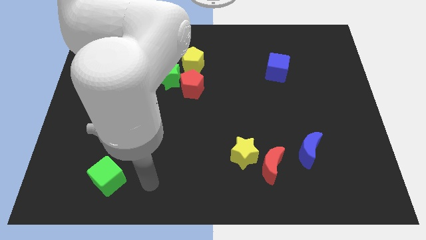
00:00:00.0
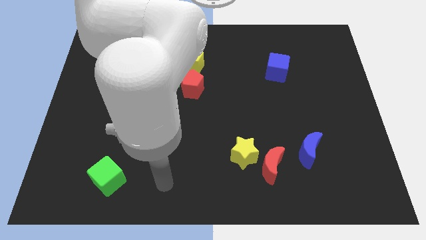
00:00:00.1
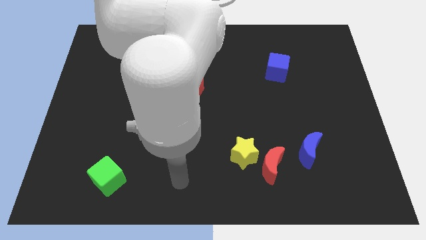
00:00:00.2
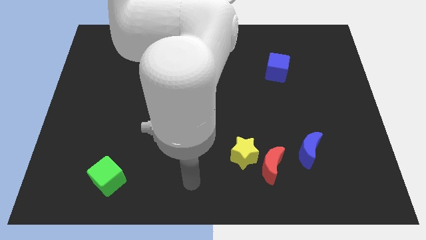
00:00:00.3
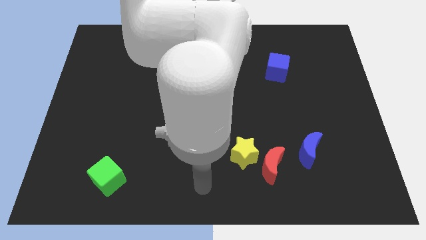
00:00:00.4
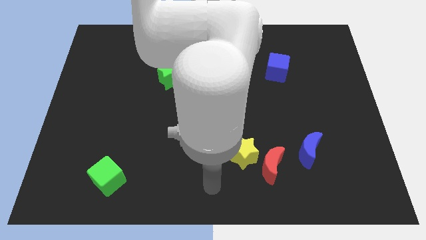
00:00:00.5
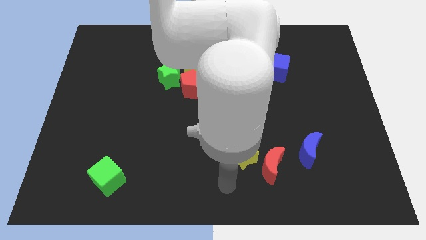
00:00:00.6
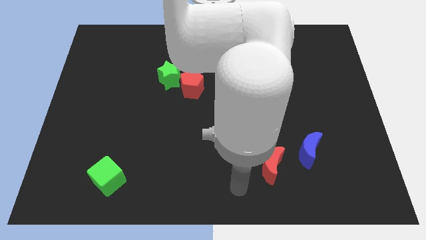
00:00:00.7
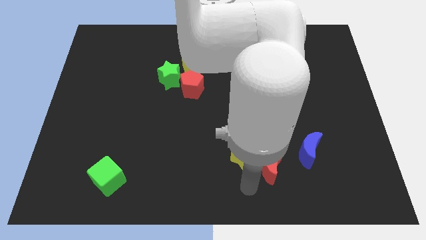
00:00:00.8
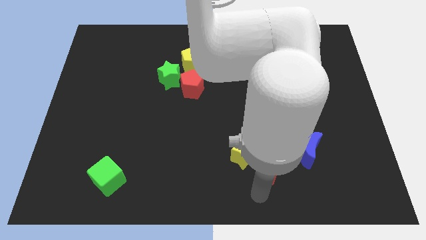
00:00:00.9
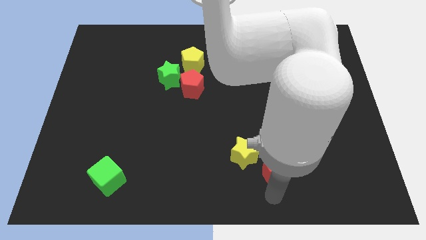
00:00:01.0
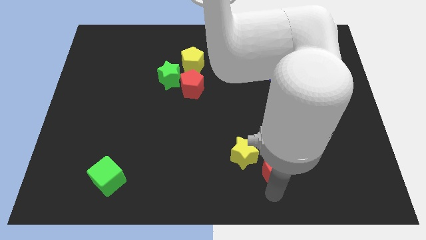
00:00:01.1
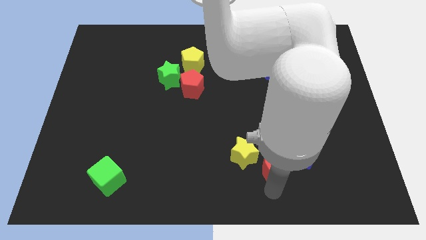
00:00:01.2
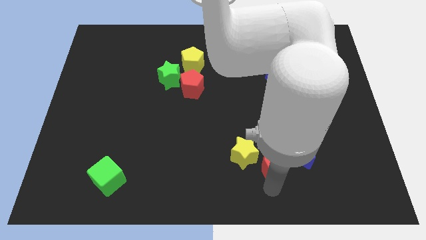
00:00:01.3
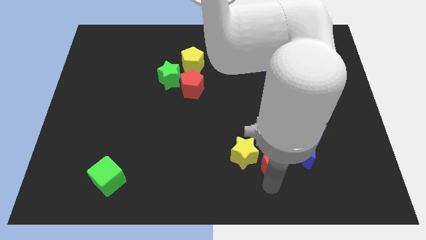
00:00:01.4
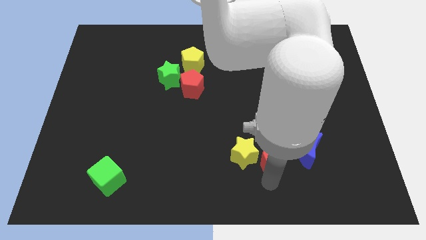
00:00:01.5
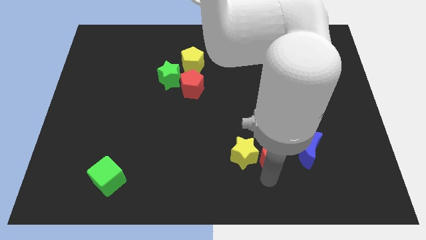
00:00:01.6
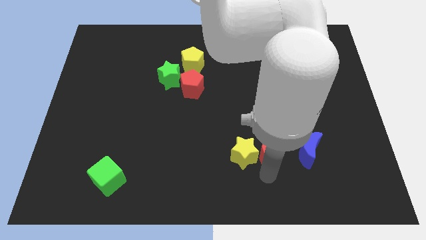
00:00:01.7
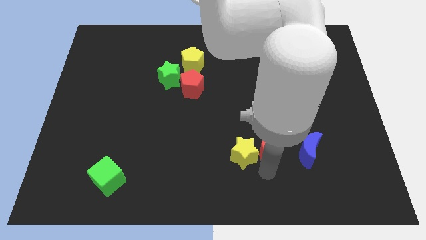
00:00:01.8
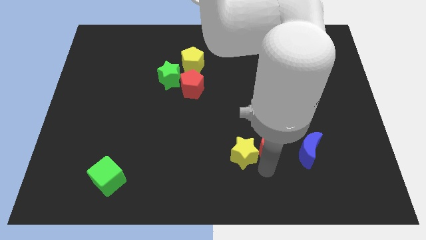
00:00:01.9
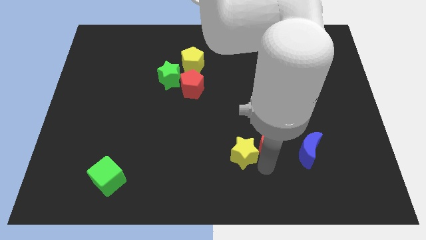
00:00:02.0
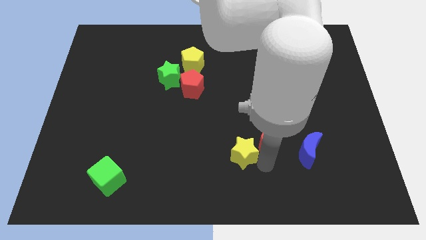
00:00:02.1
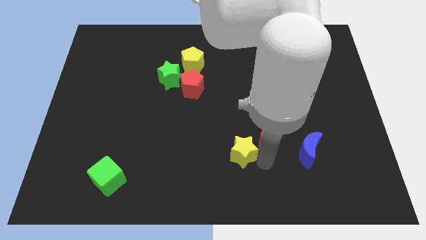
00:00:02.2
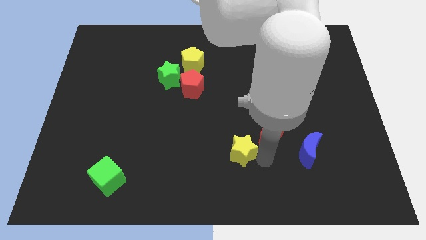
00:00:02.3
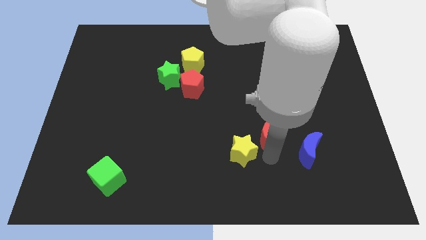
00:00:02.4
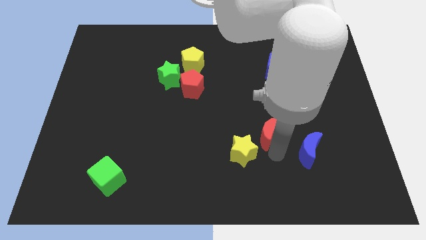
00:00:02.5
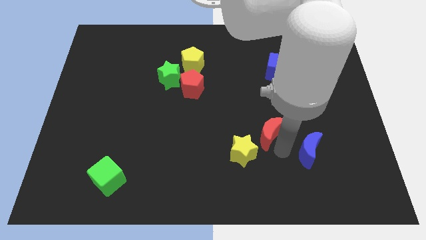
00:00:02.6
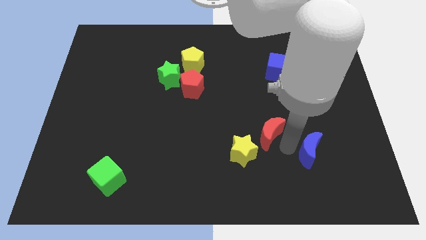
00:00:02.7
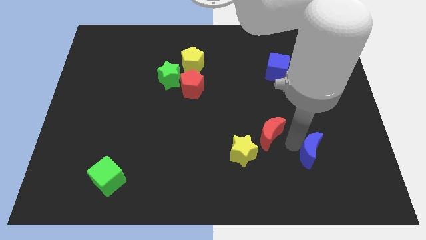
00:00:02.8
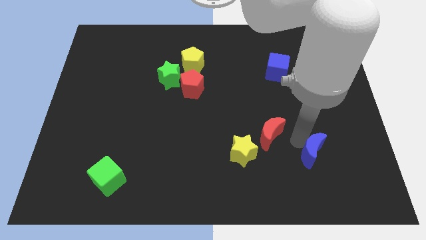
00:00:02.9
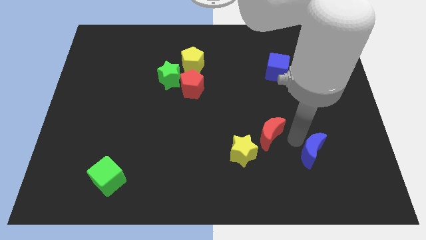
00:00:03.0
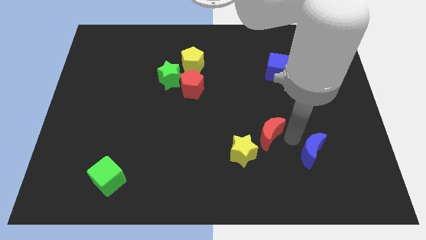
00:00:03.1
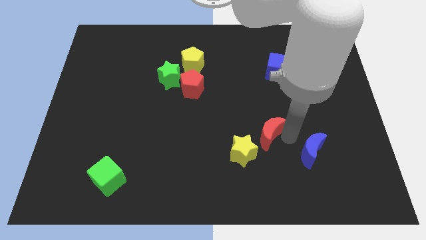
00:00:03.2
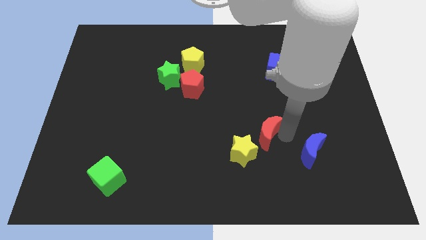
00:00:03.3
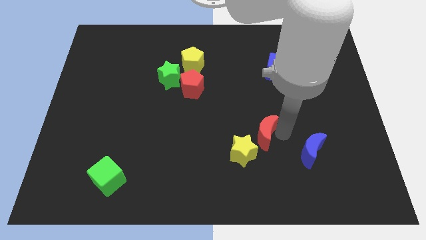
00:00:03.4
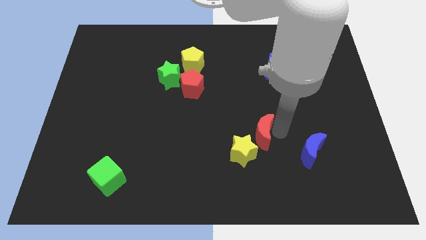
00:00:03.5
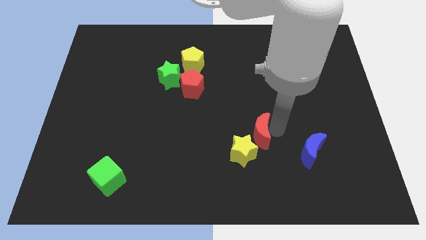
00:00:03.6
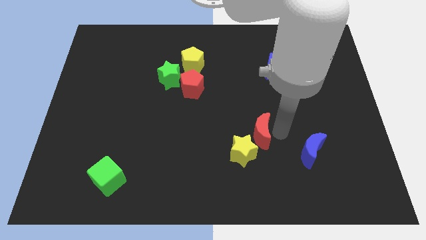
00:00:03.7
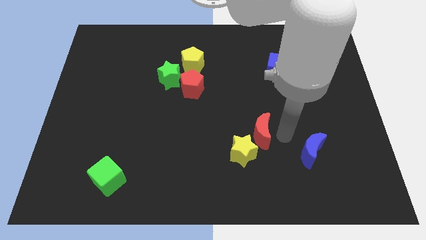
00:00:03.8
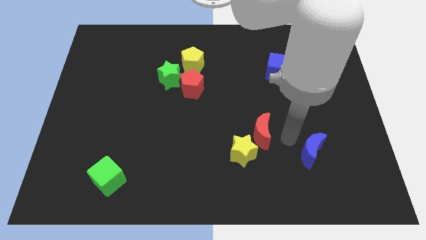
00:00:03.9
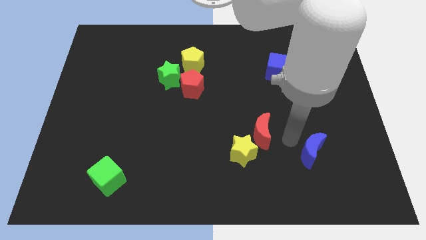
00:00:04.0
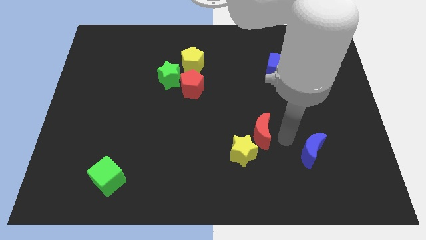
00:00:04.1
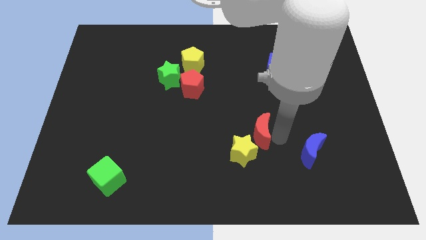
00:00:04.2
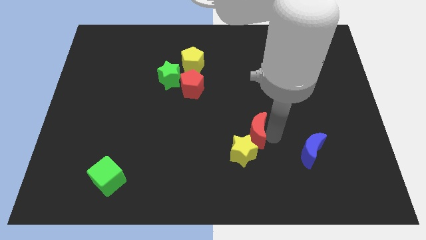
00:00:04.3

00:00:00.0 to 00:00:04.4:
slide the red moon up and then left somewhat

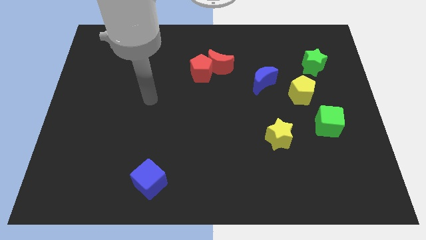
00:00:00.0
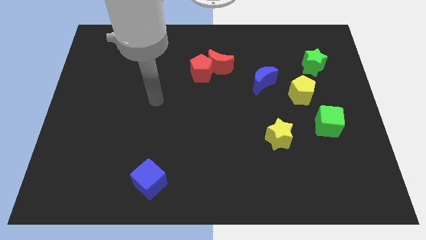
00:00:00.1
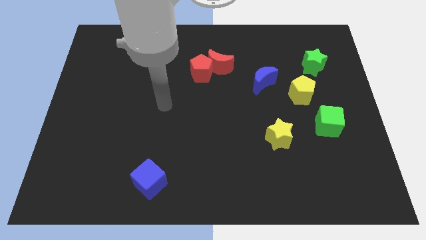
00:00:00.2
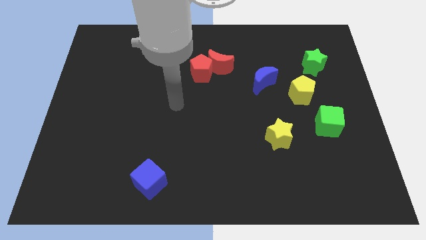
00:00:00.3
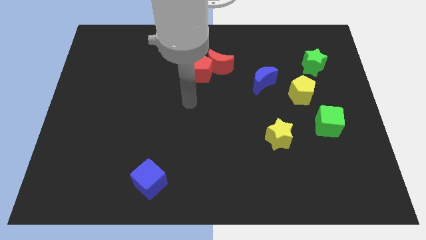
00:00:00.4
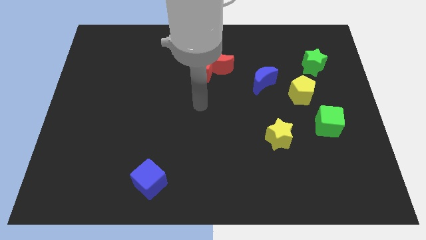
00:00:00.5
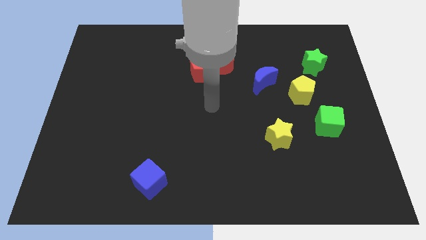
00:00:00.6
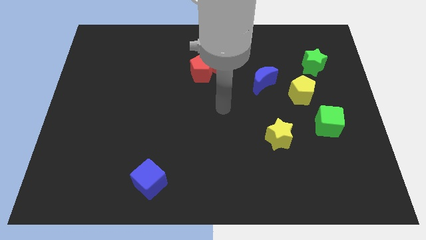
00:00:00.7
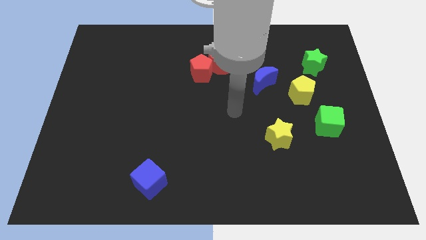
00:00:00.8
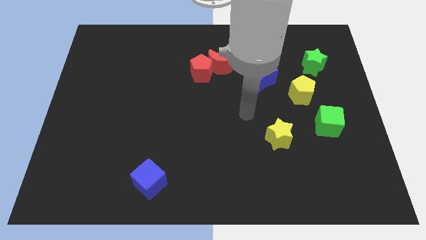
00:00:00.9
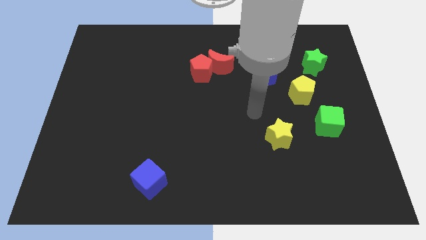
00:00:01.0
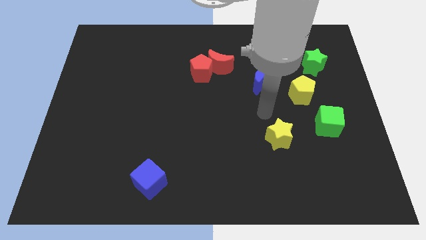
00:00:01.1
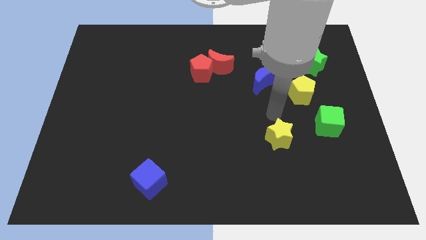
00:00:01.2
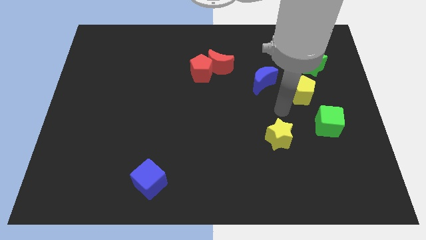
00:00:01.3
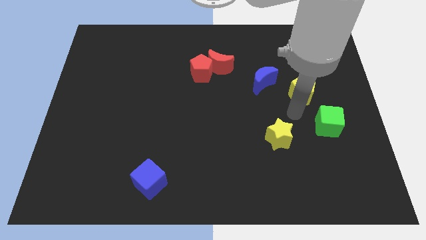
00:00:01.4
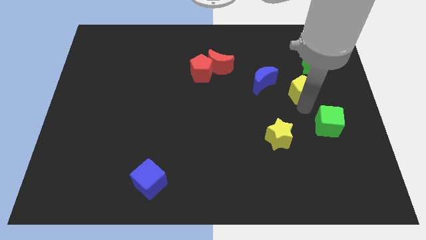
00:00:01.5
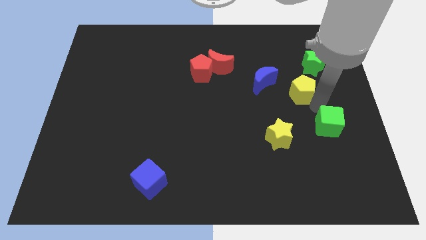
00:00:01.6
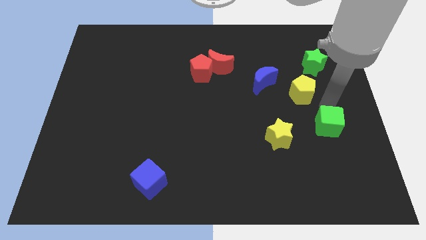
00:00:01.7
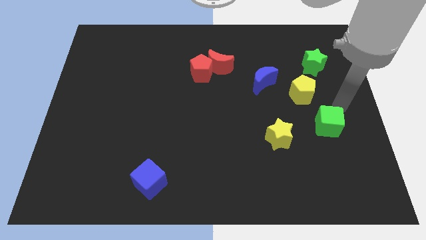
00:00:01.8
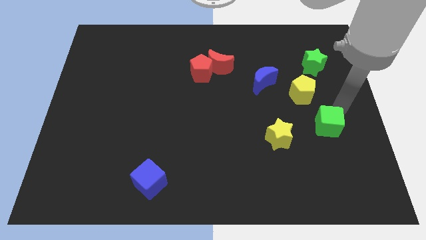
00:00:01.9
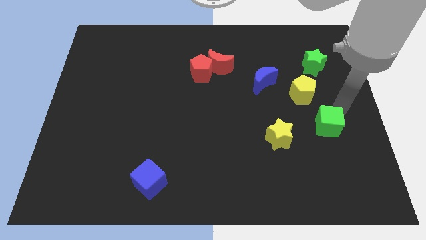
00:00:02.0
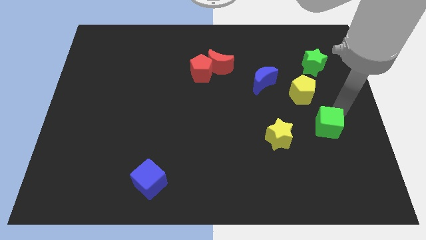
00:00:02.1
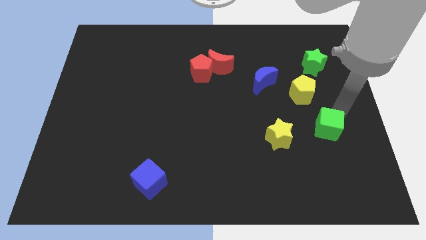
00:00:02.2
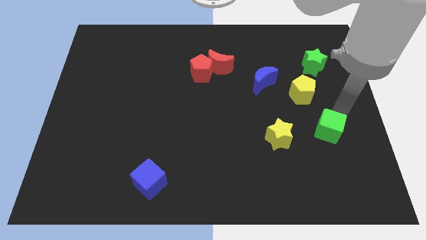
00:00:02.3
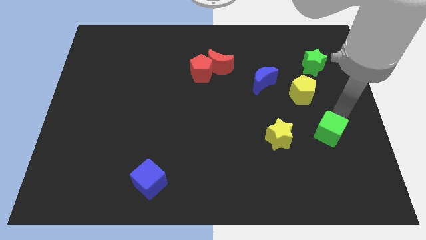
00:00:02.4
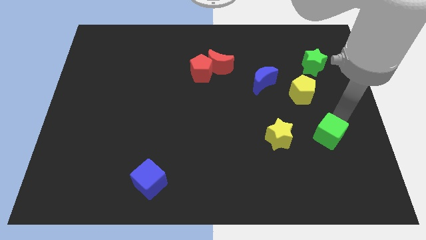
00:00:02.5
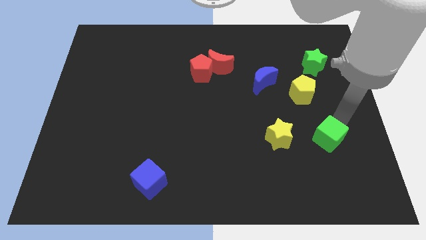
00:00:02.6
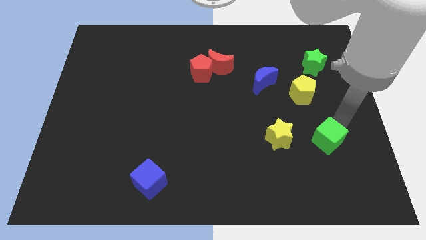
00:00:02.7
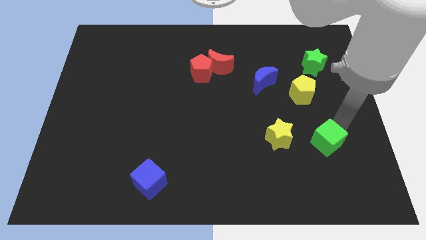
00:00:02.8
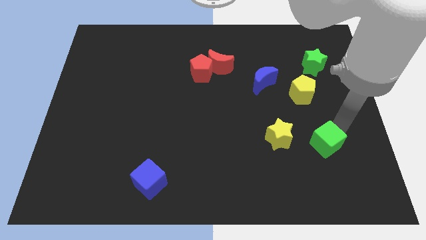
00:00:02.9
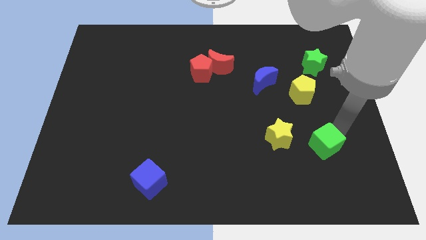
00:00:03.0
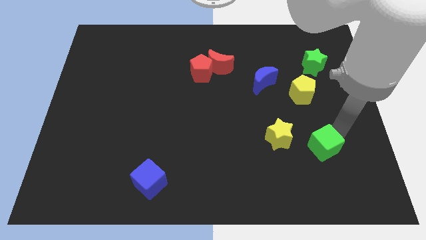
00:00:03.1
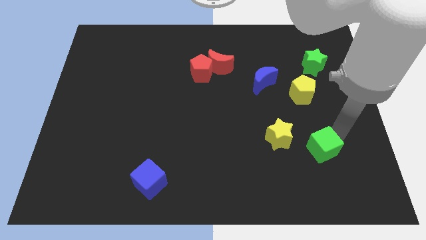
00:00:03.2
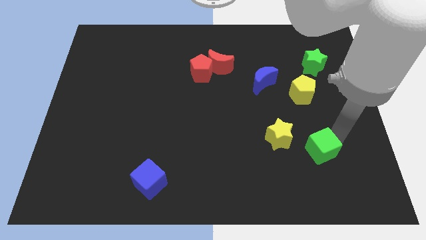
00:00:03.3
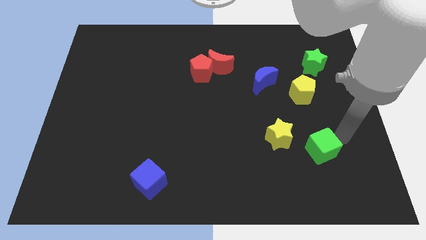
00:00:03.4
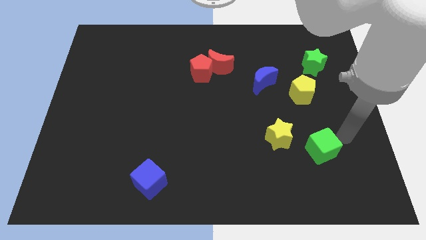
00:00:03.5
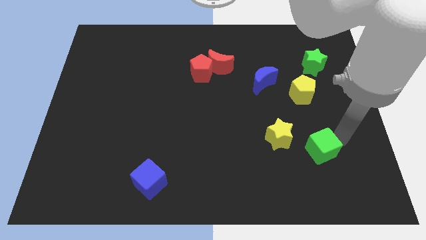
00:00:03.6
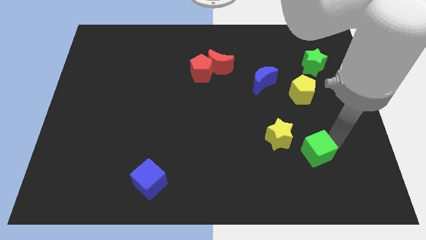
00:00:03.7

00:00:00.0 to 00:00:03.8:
move the green cube downwards and to the left diagonally a bit
